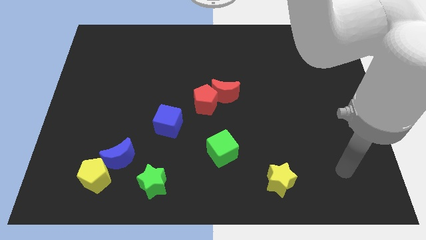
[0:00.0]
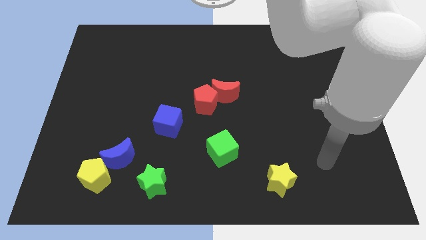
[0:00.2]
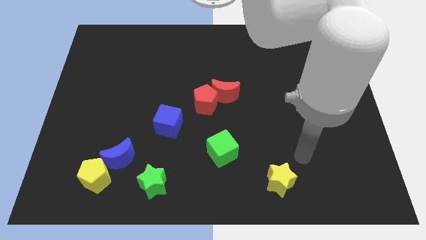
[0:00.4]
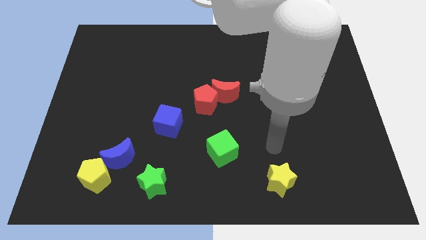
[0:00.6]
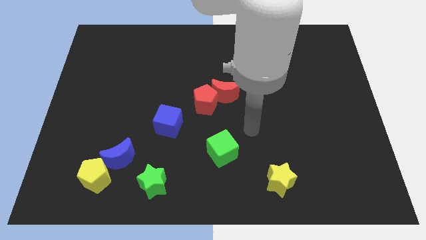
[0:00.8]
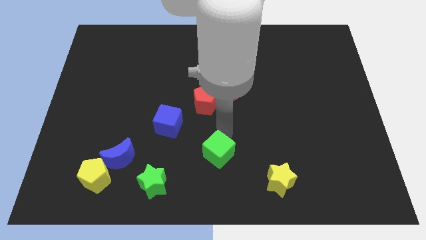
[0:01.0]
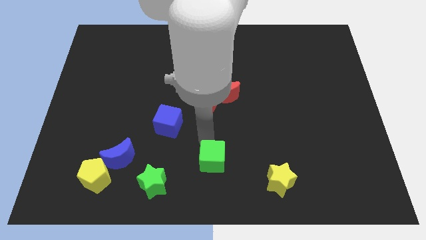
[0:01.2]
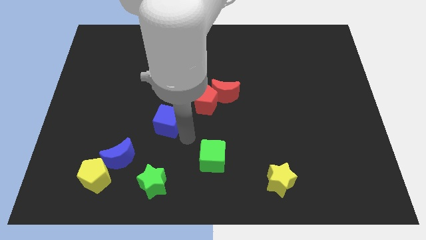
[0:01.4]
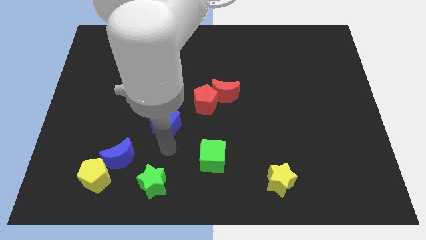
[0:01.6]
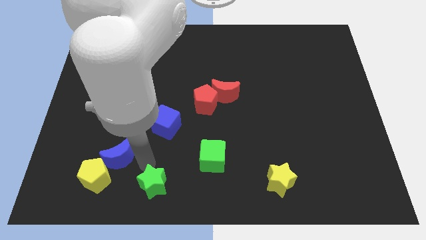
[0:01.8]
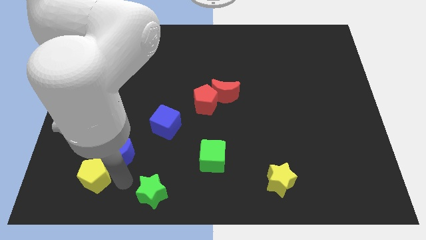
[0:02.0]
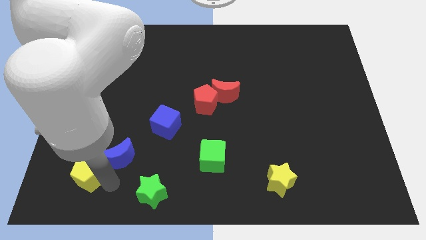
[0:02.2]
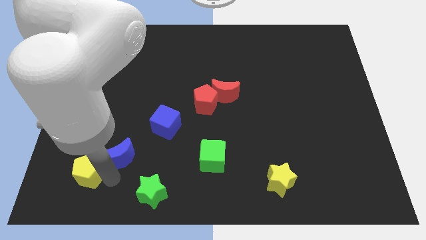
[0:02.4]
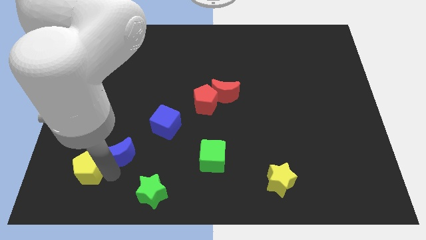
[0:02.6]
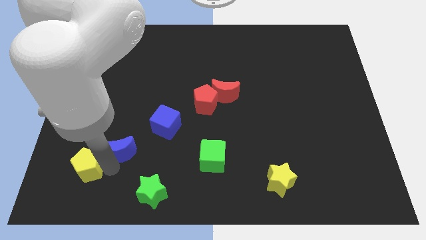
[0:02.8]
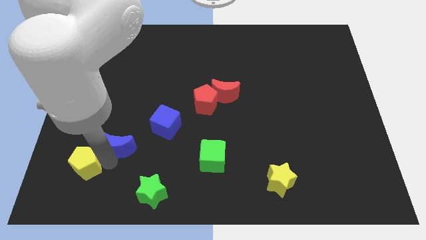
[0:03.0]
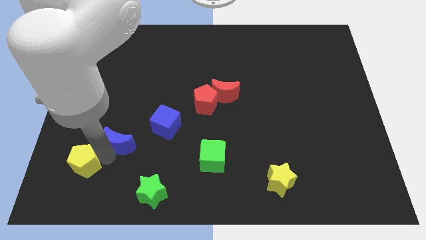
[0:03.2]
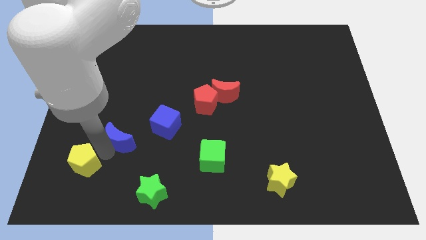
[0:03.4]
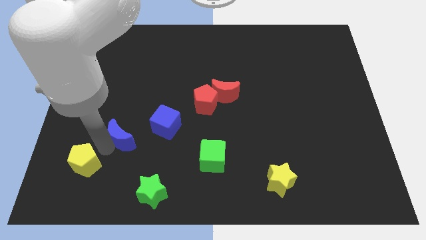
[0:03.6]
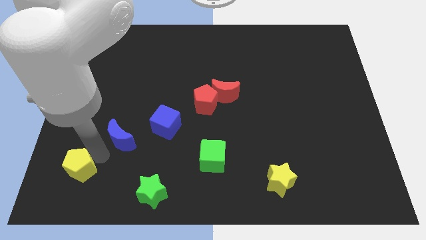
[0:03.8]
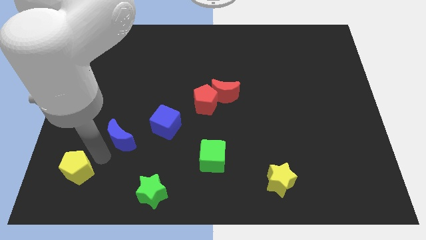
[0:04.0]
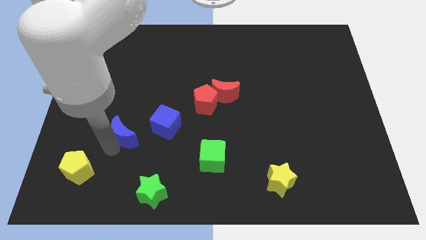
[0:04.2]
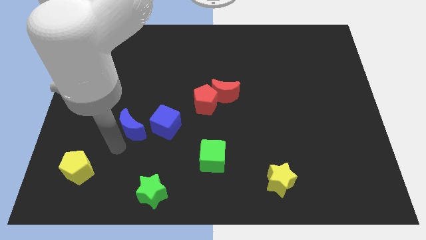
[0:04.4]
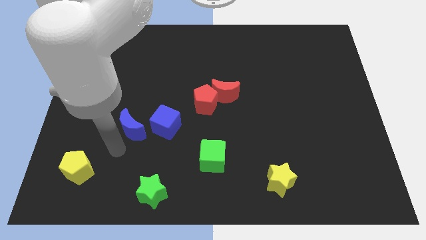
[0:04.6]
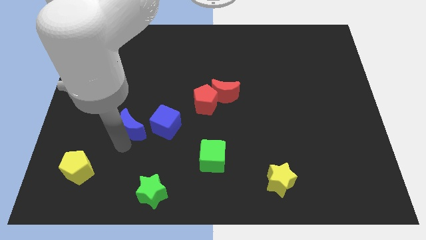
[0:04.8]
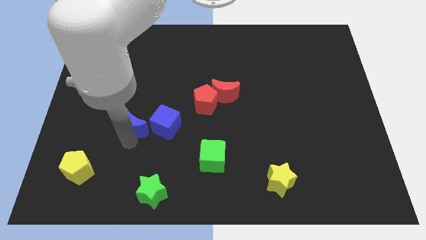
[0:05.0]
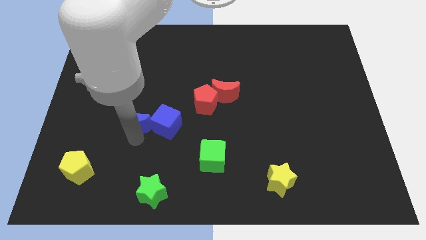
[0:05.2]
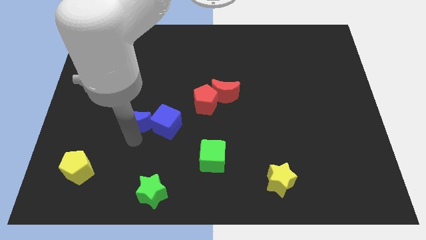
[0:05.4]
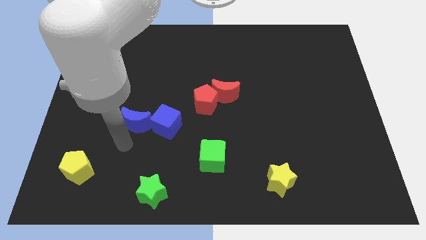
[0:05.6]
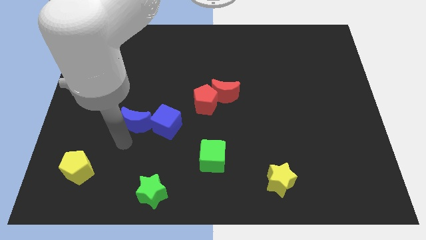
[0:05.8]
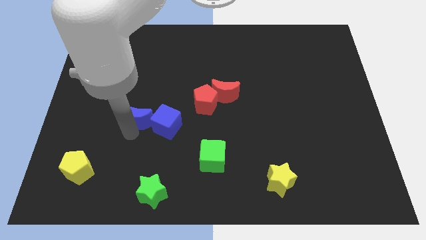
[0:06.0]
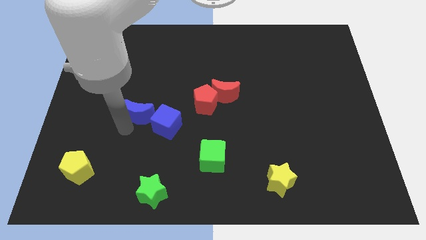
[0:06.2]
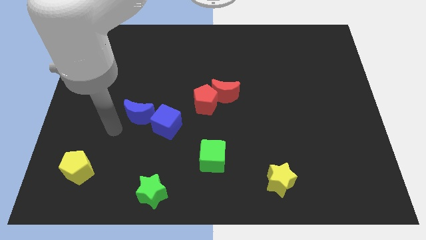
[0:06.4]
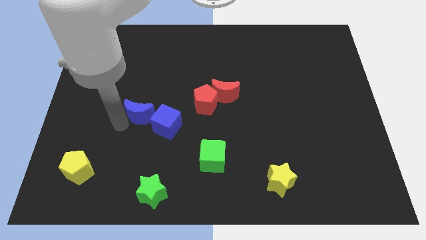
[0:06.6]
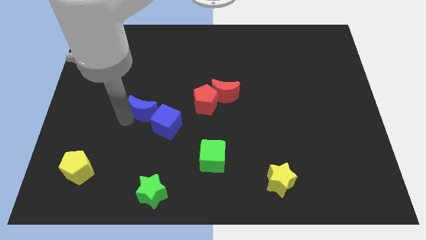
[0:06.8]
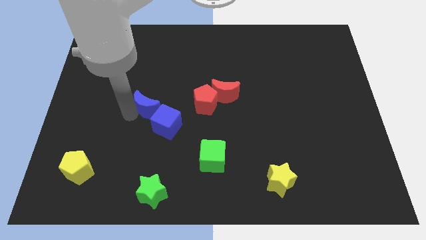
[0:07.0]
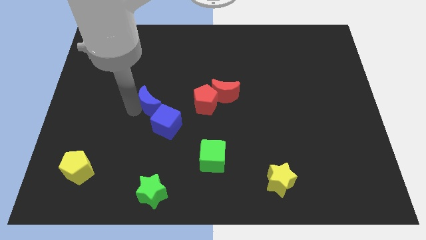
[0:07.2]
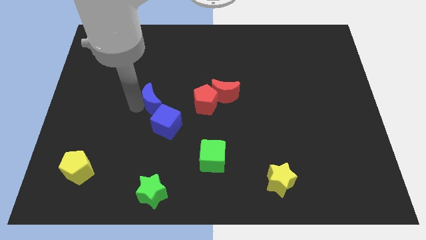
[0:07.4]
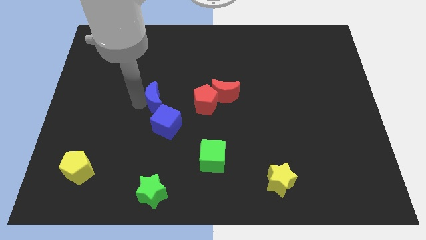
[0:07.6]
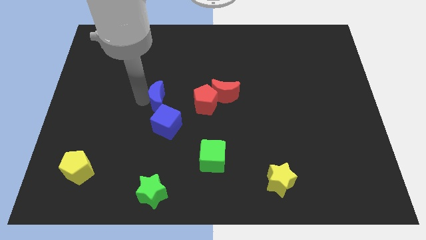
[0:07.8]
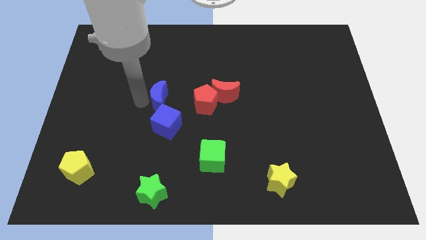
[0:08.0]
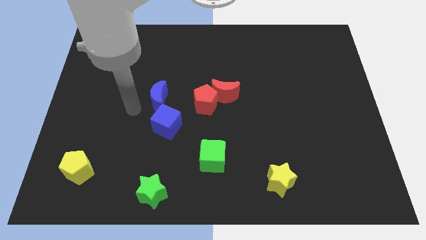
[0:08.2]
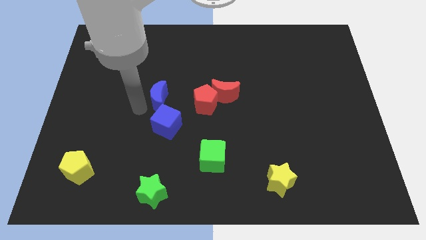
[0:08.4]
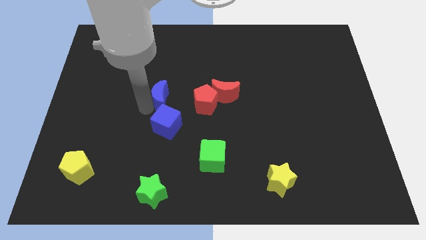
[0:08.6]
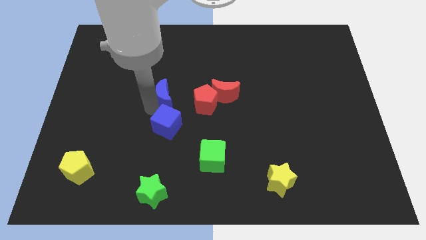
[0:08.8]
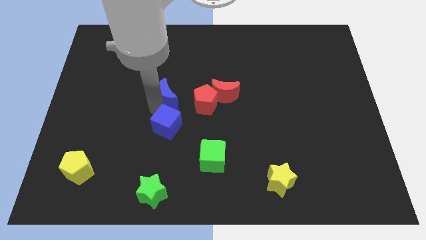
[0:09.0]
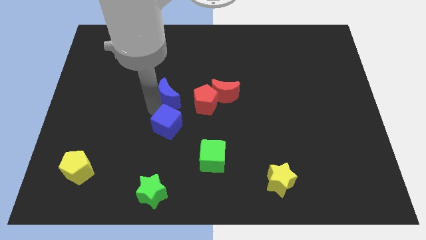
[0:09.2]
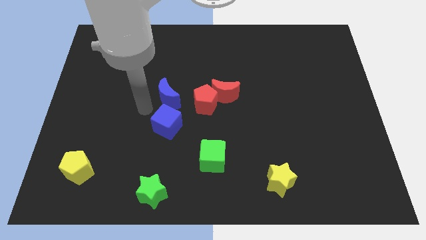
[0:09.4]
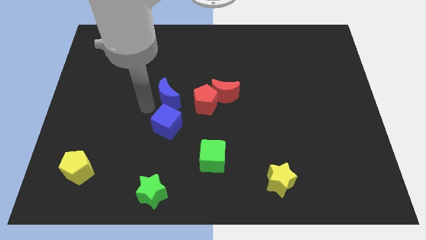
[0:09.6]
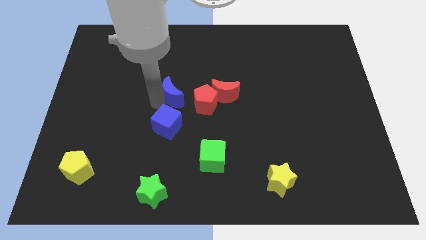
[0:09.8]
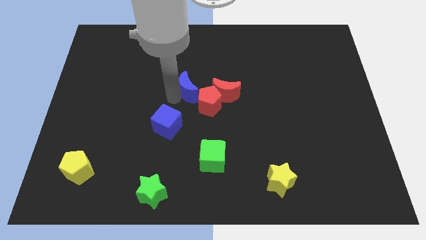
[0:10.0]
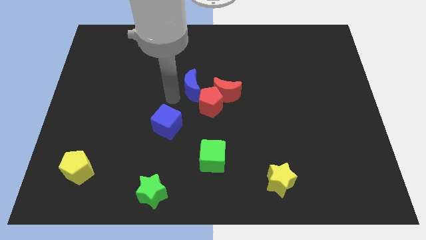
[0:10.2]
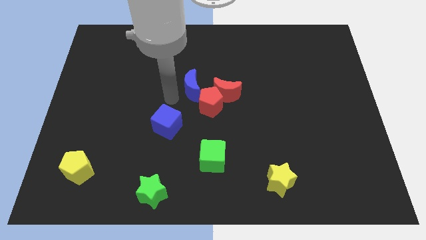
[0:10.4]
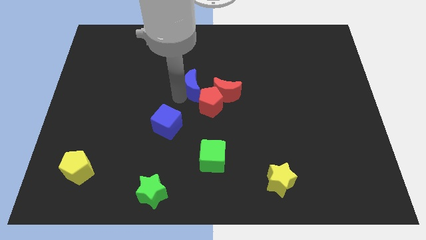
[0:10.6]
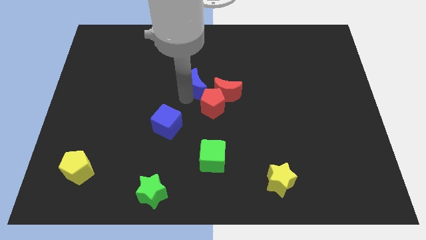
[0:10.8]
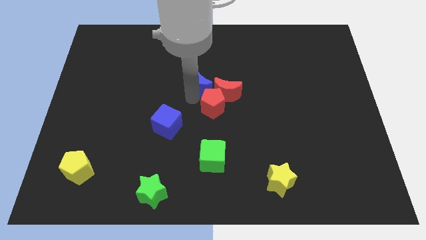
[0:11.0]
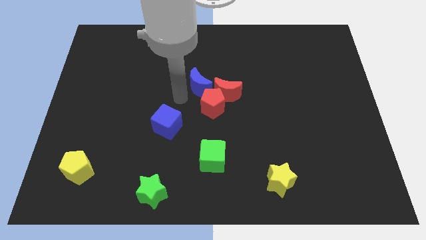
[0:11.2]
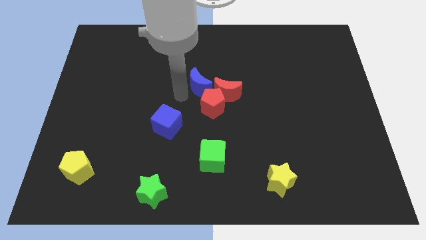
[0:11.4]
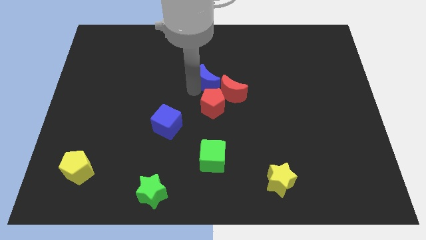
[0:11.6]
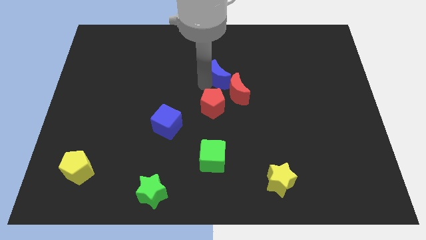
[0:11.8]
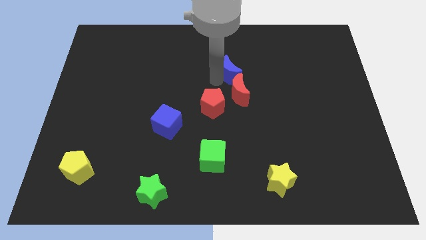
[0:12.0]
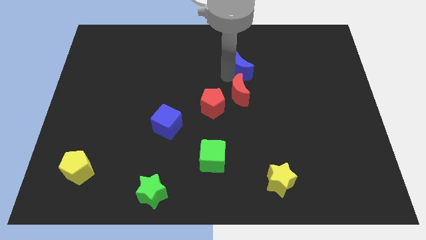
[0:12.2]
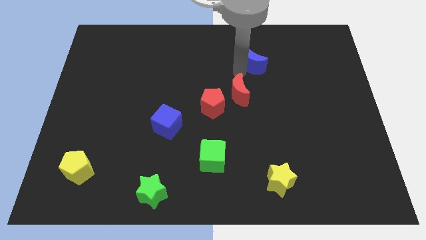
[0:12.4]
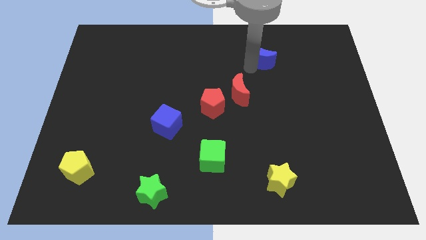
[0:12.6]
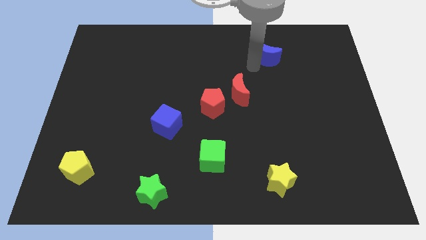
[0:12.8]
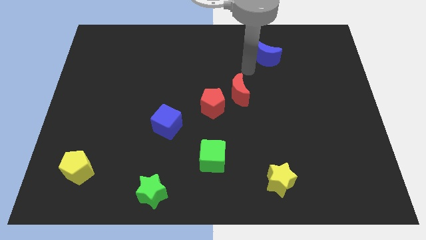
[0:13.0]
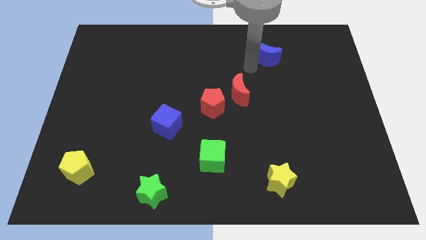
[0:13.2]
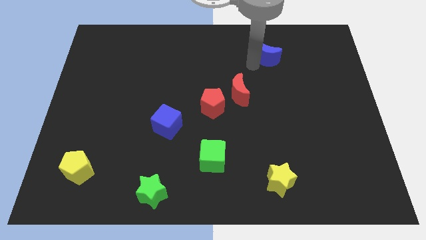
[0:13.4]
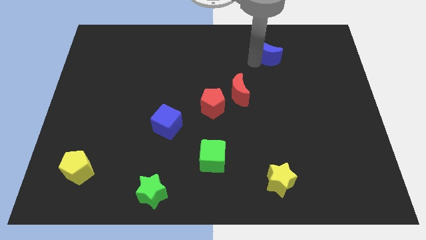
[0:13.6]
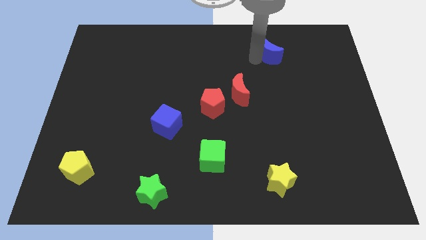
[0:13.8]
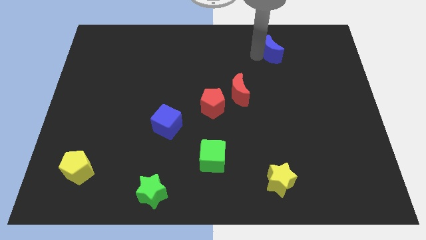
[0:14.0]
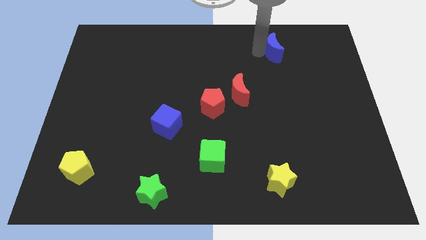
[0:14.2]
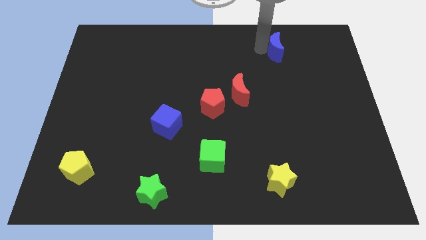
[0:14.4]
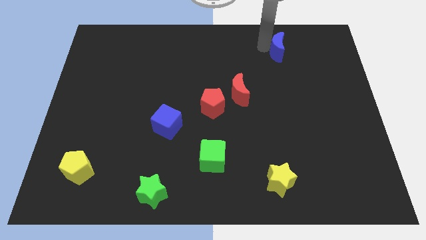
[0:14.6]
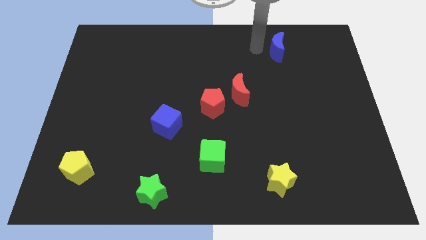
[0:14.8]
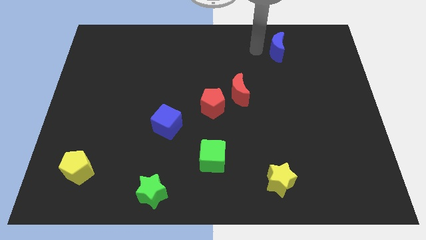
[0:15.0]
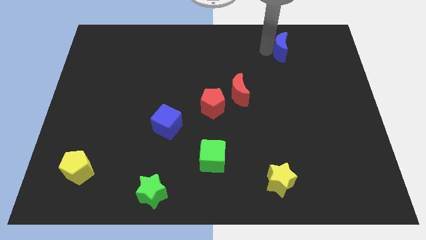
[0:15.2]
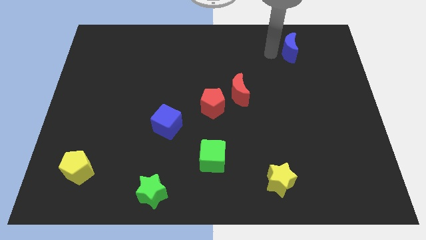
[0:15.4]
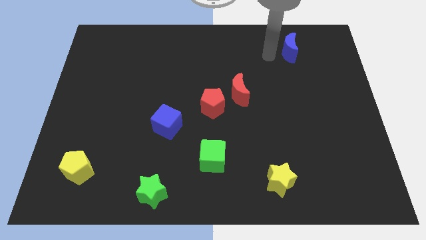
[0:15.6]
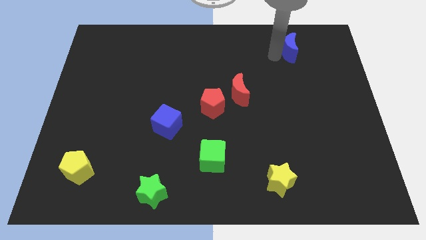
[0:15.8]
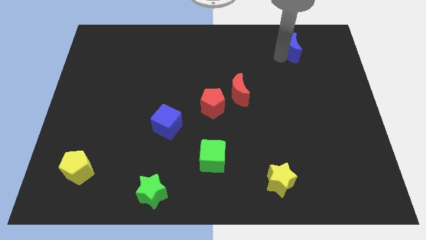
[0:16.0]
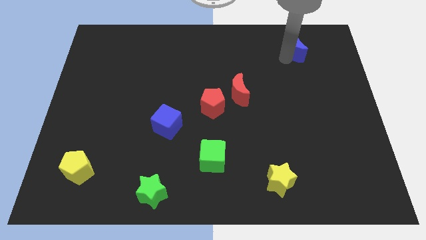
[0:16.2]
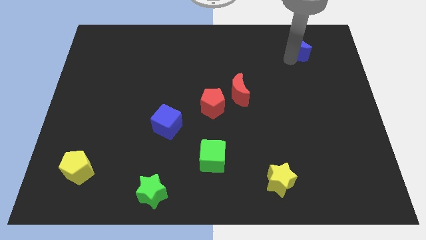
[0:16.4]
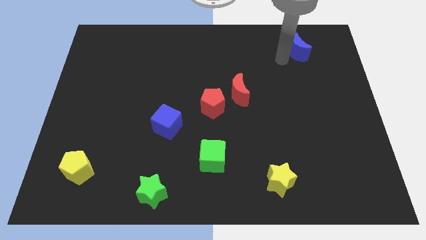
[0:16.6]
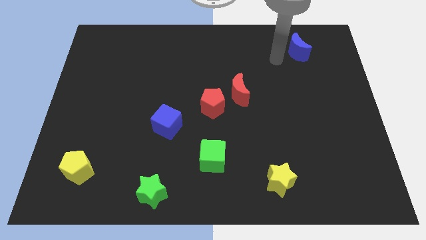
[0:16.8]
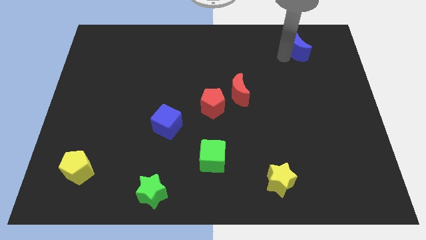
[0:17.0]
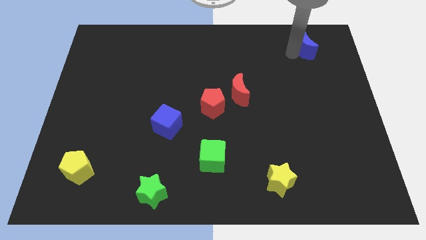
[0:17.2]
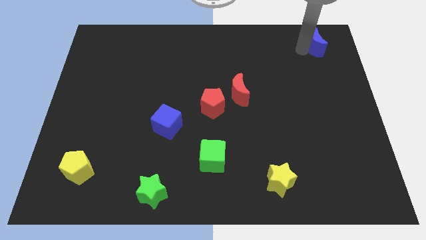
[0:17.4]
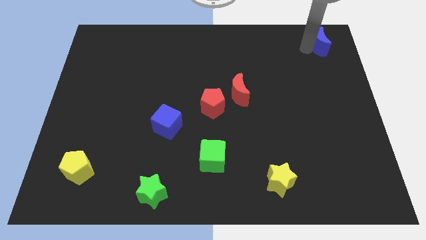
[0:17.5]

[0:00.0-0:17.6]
slide the blue moon to the upper right corner
